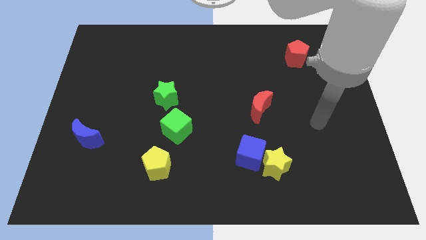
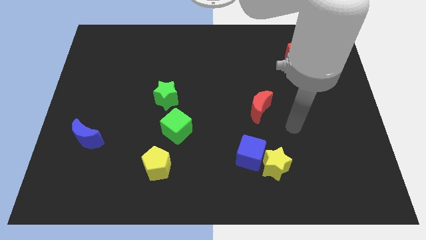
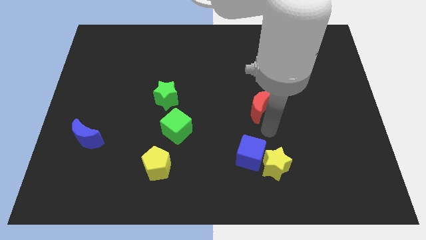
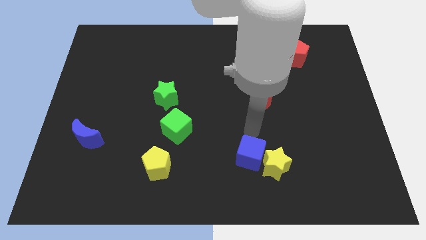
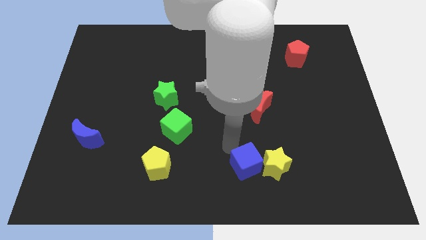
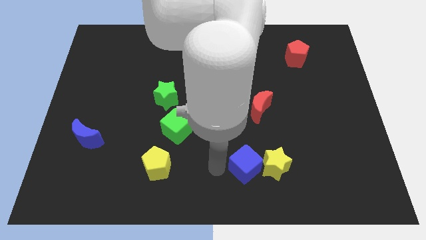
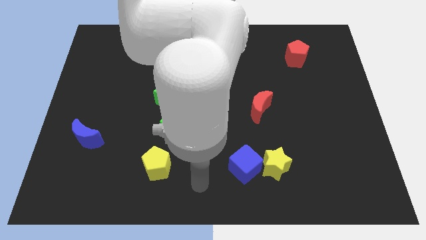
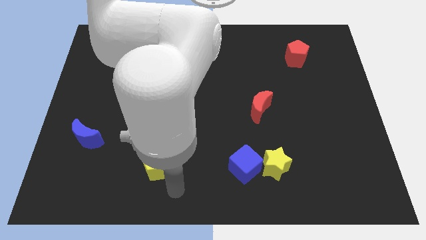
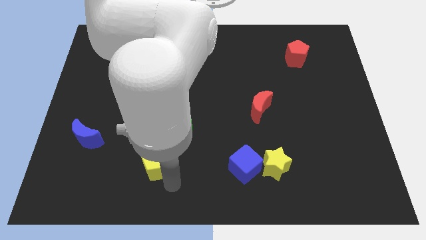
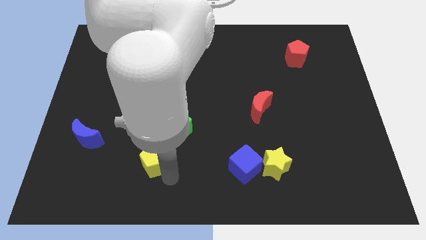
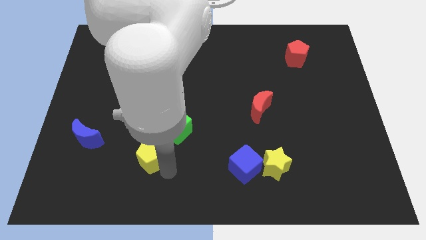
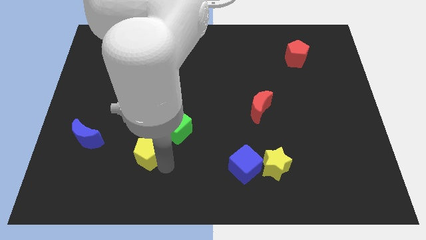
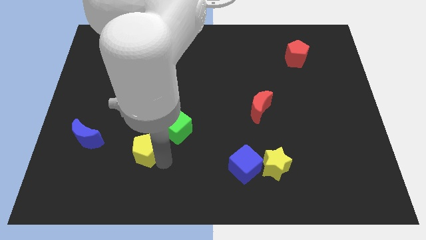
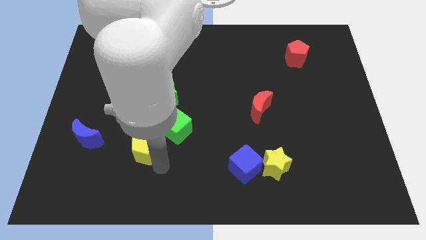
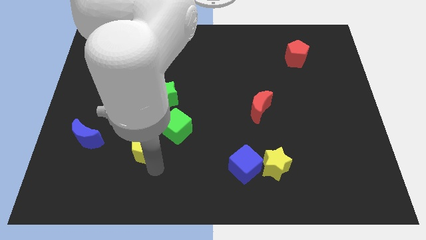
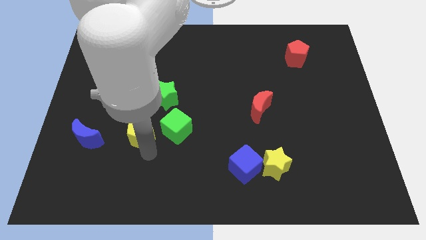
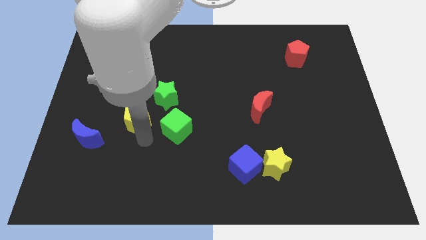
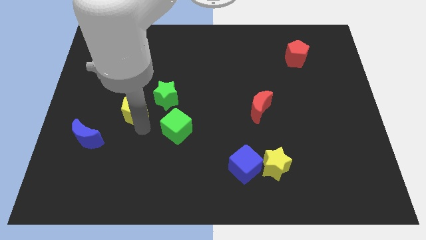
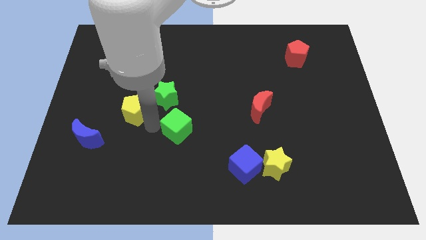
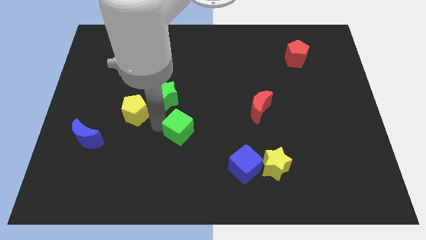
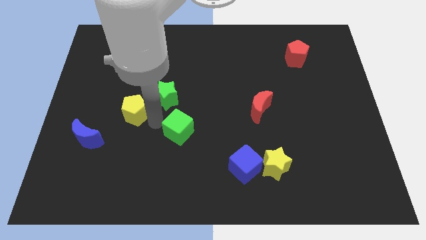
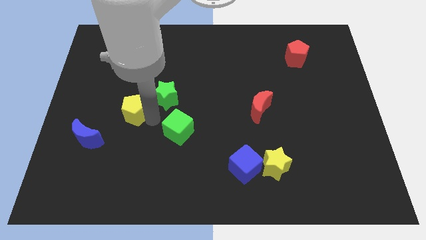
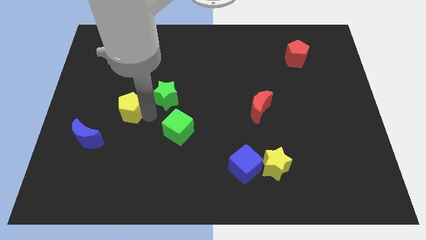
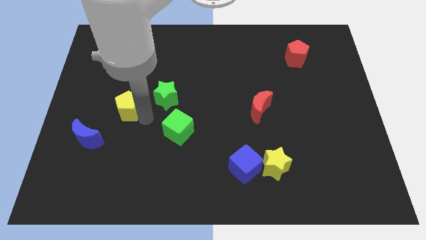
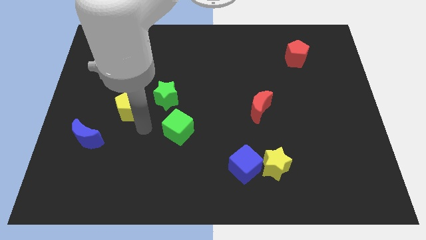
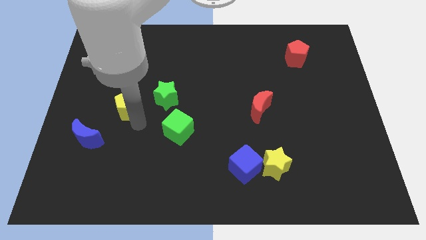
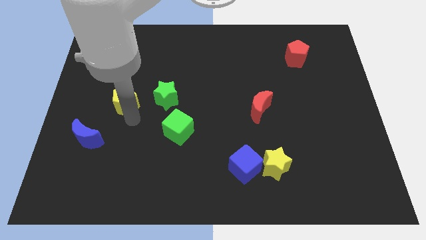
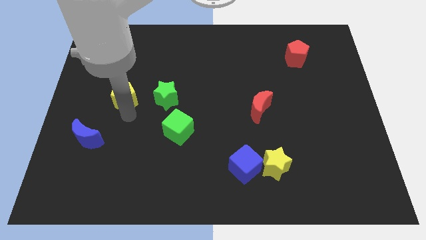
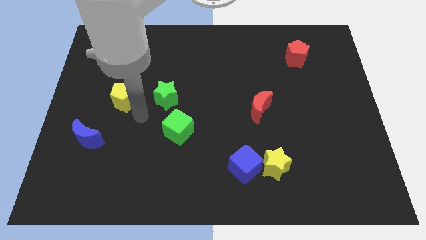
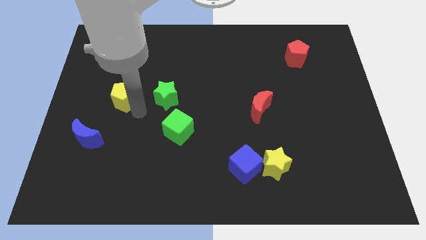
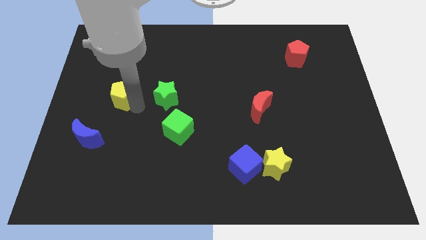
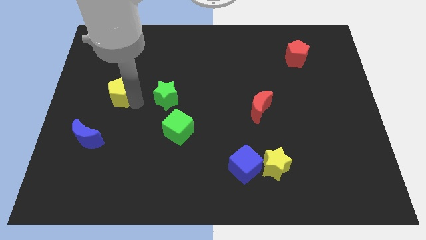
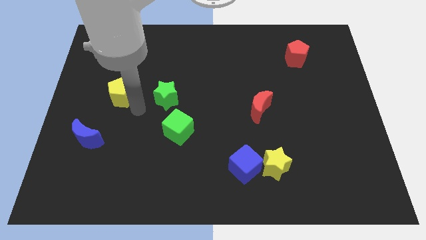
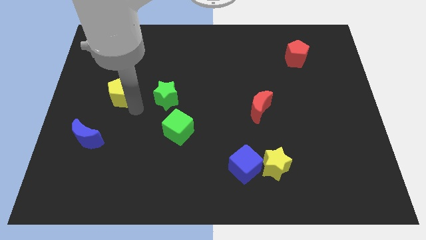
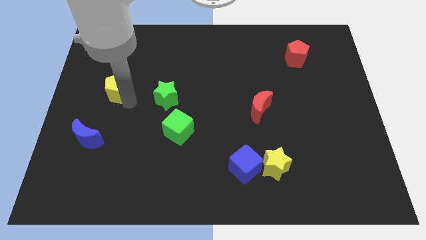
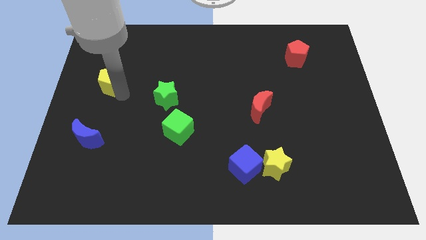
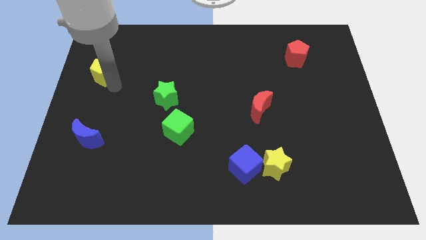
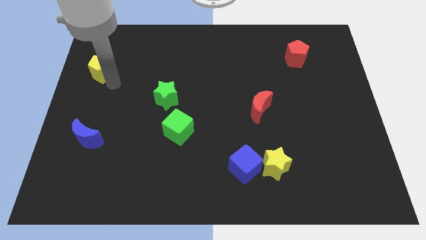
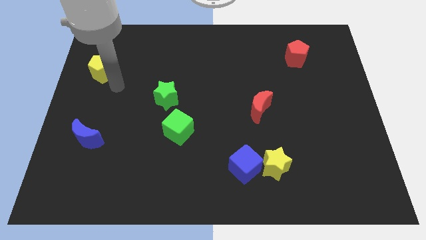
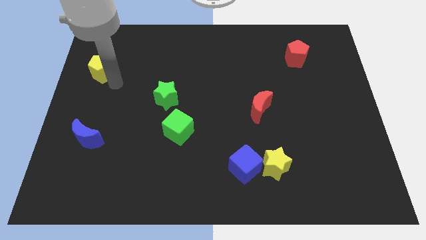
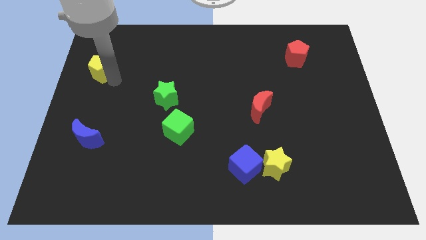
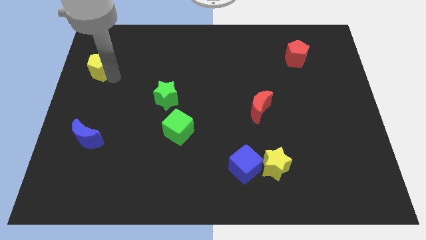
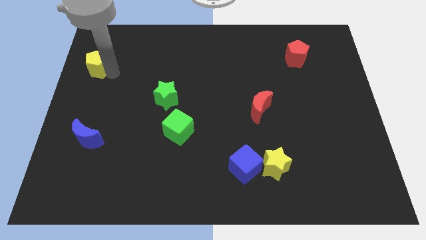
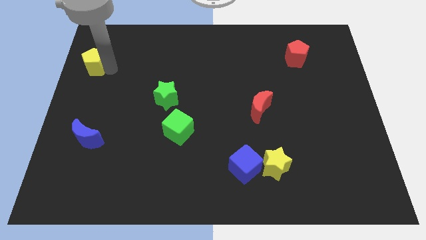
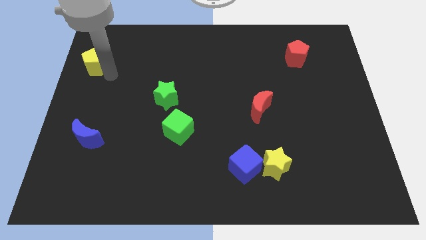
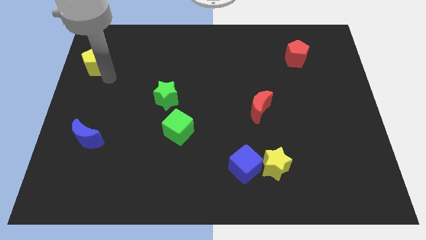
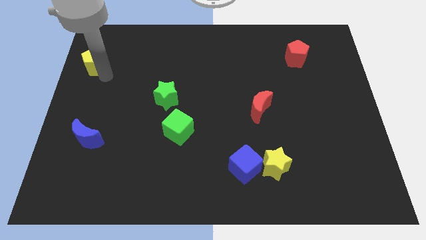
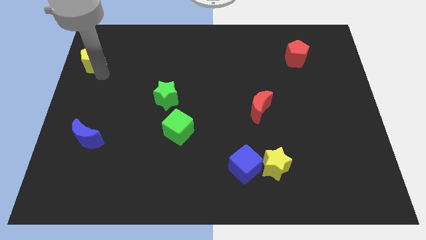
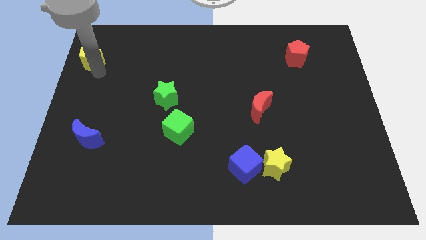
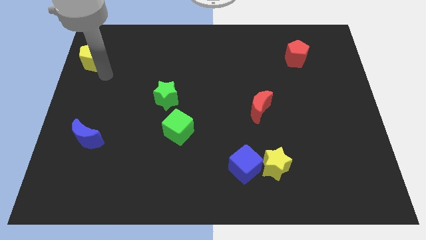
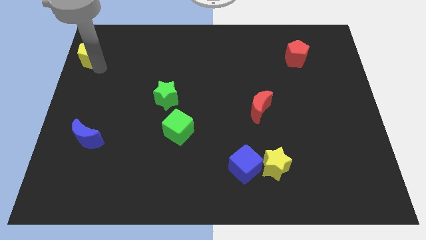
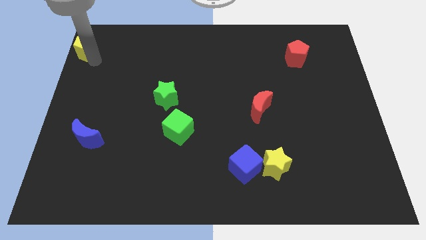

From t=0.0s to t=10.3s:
move the yellow pentagon to the top left
